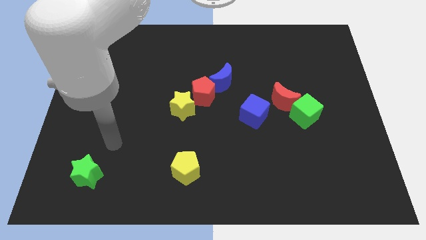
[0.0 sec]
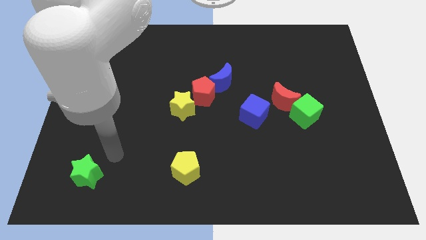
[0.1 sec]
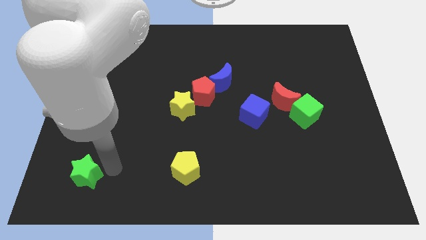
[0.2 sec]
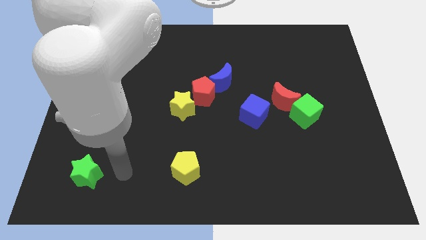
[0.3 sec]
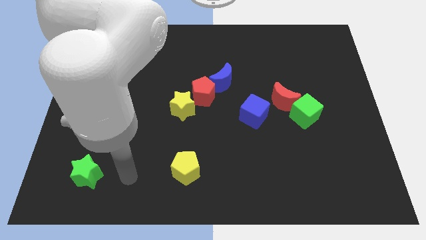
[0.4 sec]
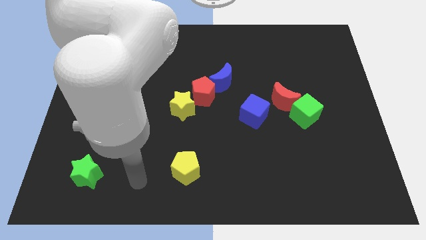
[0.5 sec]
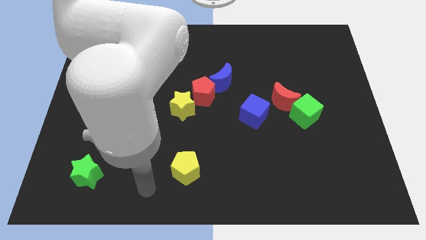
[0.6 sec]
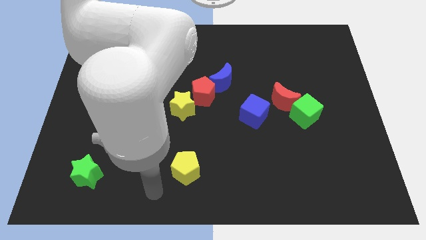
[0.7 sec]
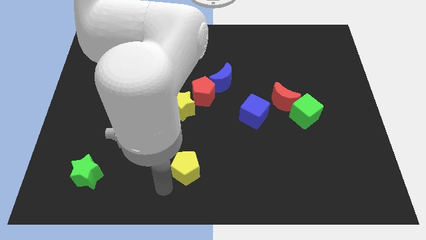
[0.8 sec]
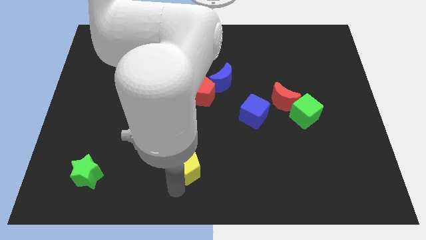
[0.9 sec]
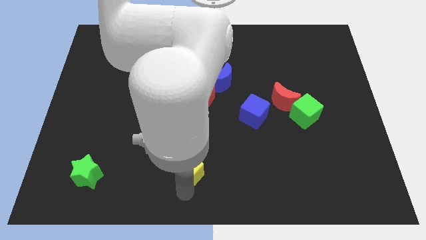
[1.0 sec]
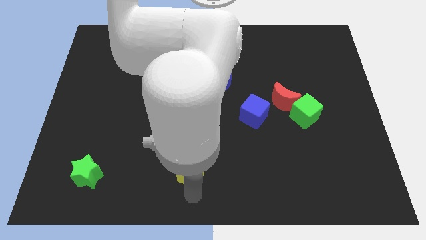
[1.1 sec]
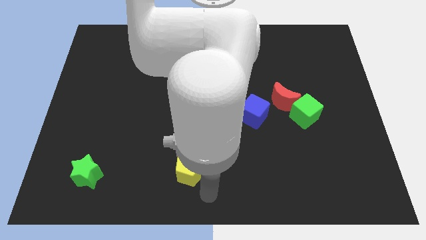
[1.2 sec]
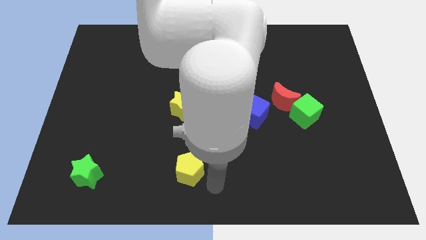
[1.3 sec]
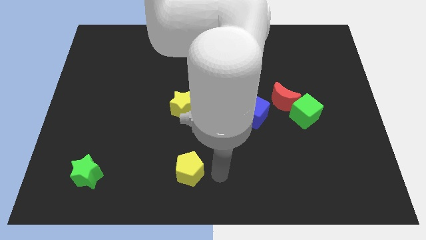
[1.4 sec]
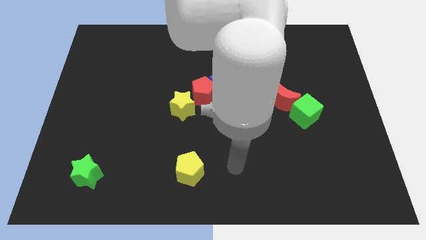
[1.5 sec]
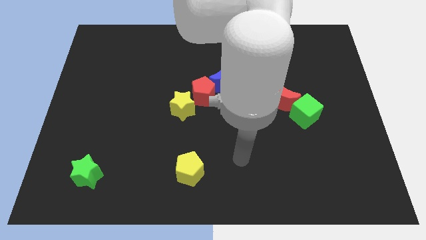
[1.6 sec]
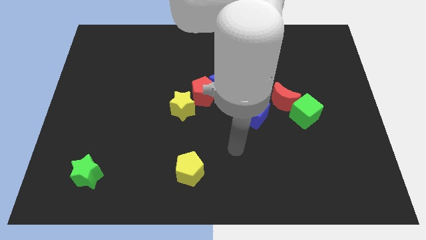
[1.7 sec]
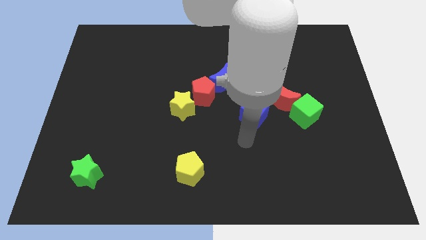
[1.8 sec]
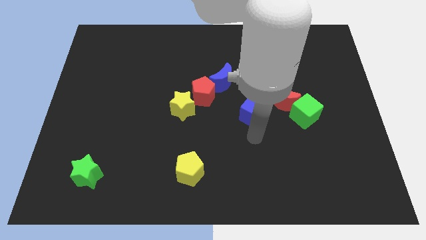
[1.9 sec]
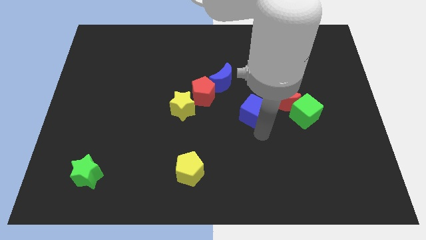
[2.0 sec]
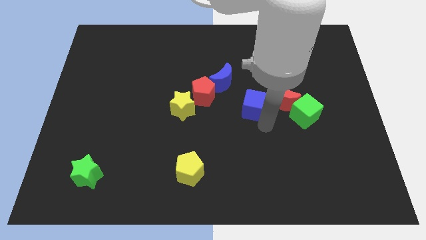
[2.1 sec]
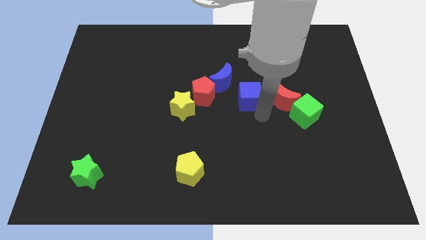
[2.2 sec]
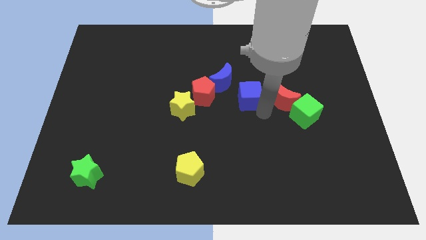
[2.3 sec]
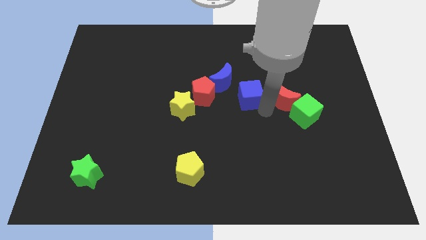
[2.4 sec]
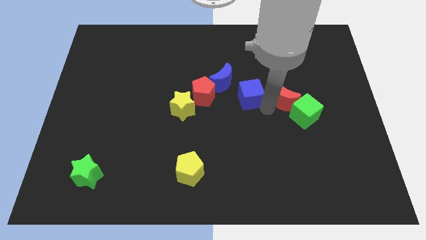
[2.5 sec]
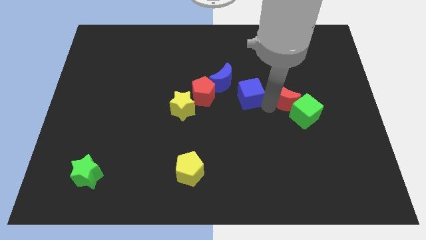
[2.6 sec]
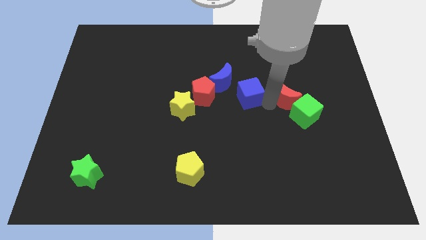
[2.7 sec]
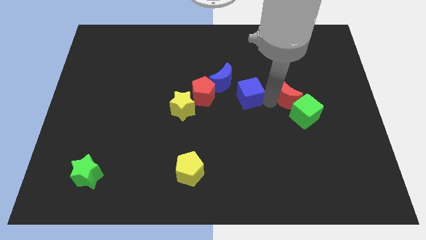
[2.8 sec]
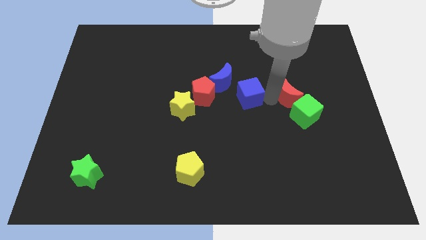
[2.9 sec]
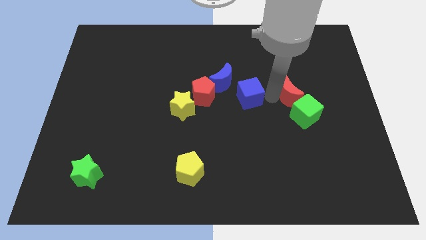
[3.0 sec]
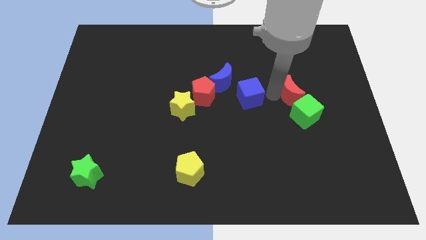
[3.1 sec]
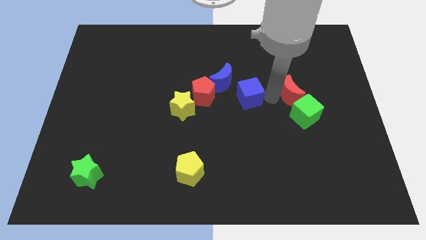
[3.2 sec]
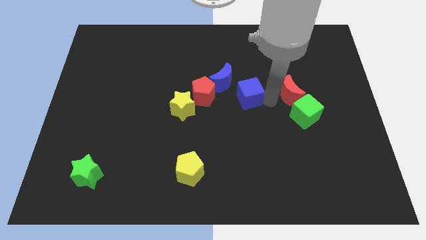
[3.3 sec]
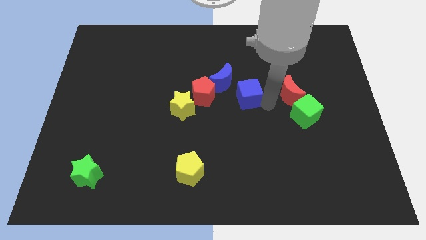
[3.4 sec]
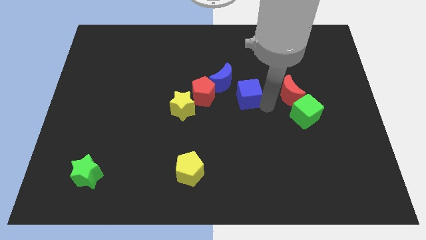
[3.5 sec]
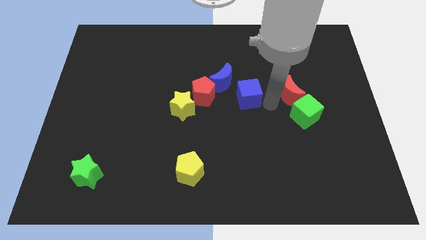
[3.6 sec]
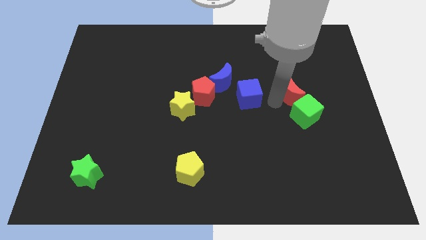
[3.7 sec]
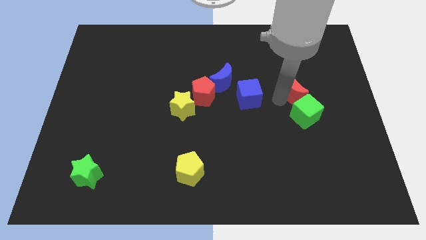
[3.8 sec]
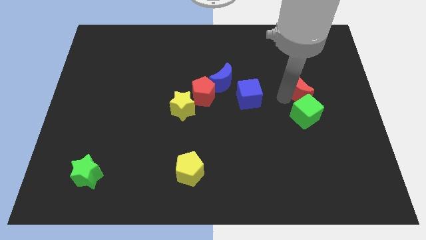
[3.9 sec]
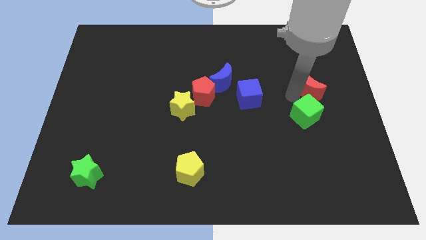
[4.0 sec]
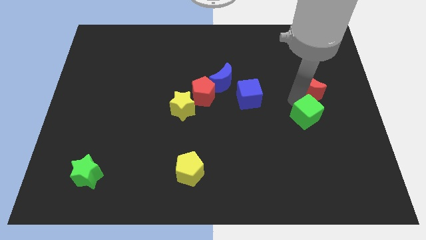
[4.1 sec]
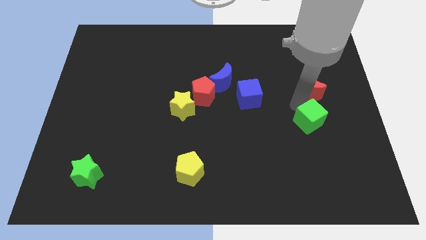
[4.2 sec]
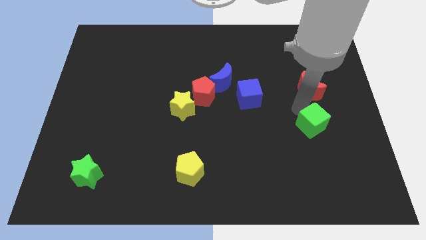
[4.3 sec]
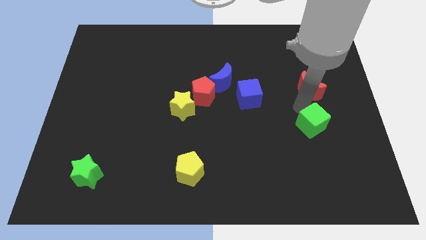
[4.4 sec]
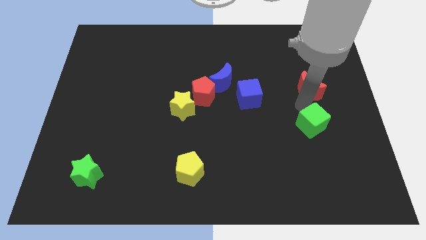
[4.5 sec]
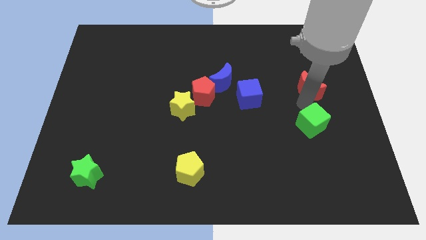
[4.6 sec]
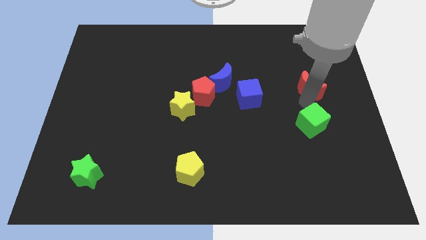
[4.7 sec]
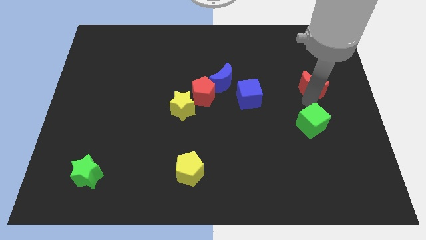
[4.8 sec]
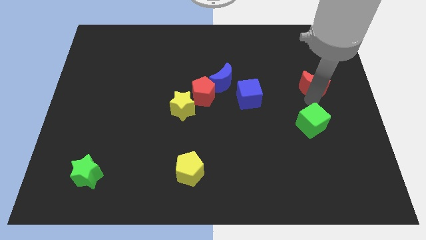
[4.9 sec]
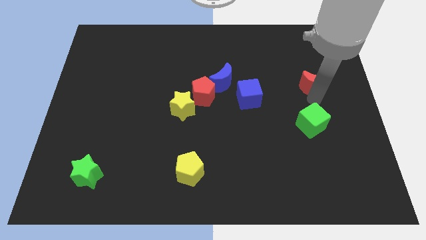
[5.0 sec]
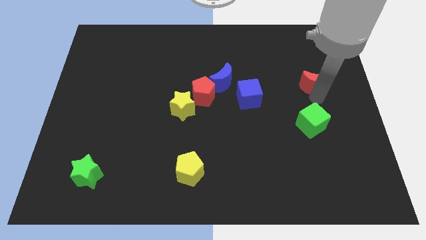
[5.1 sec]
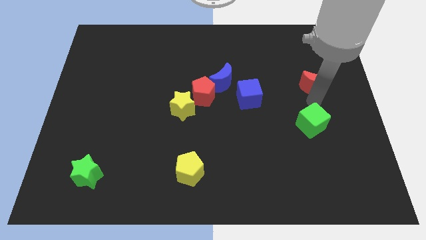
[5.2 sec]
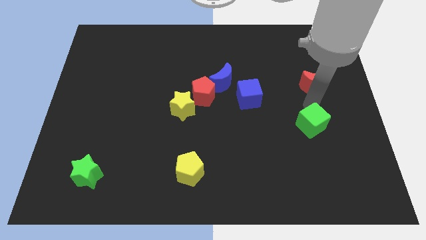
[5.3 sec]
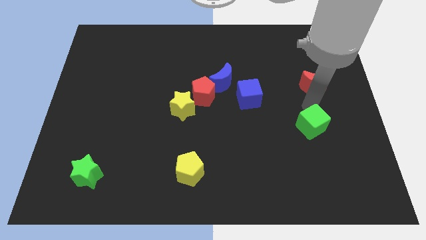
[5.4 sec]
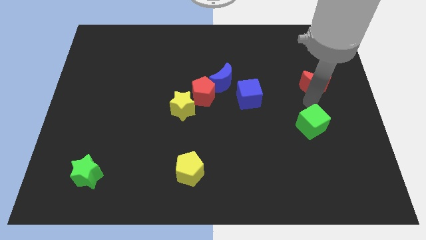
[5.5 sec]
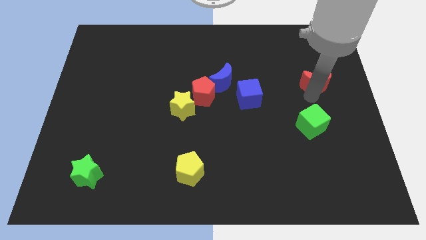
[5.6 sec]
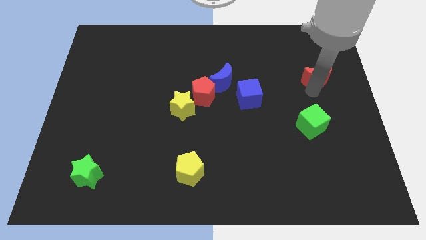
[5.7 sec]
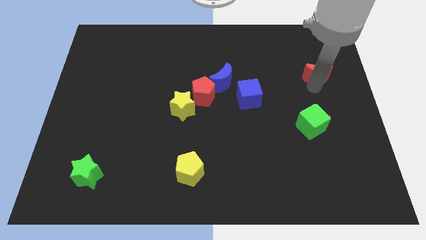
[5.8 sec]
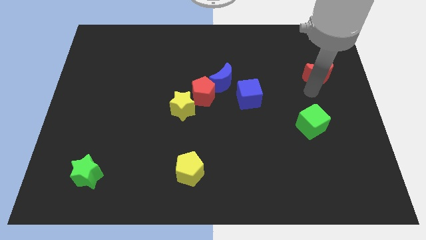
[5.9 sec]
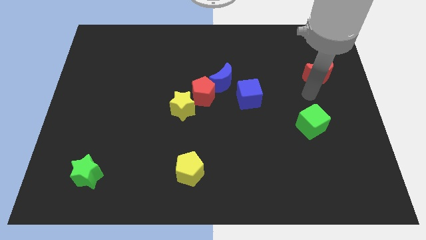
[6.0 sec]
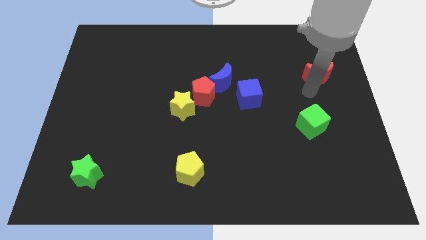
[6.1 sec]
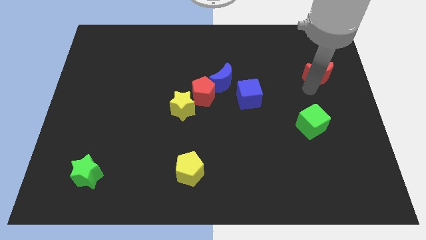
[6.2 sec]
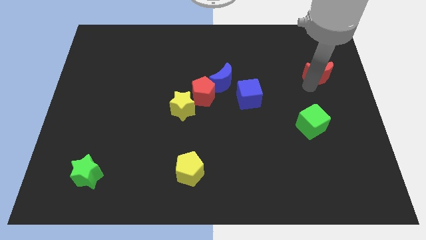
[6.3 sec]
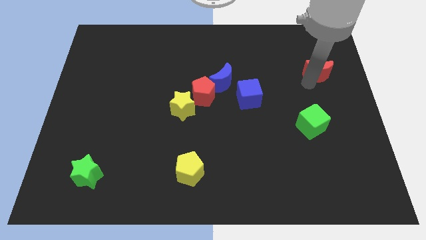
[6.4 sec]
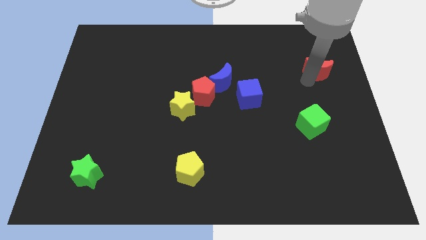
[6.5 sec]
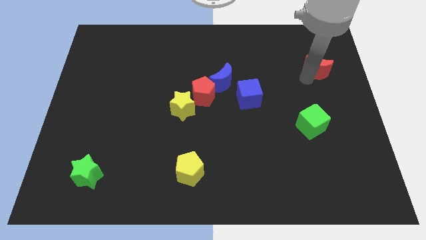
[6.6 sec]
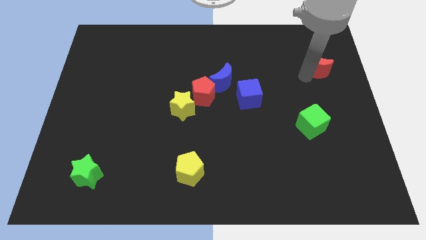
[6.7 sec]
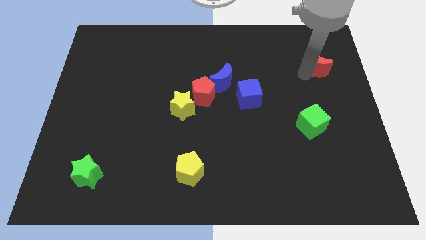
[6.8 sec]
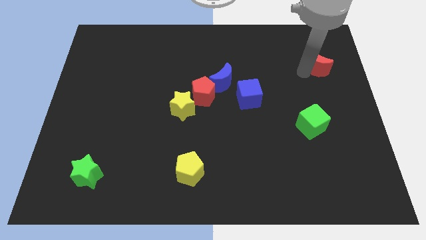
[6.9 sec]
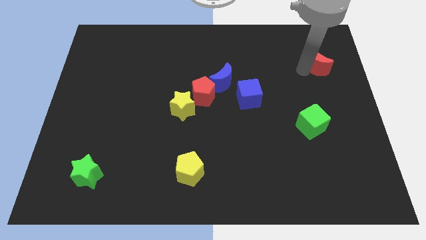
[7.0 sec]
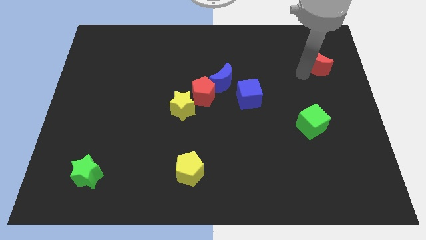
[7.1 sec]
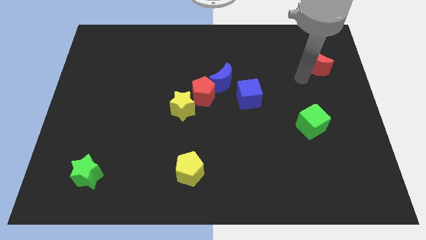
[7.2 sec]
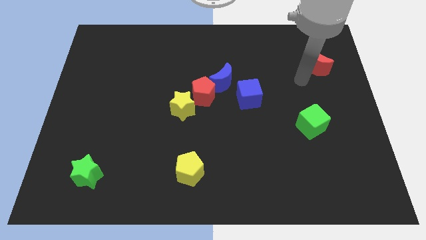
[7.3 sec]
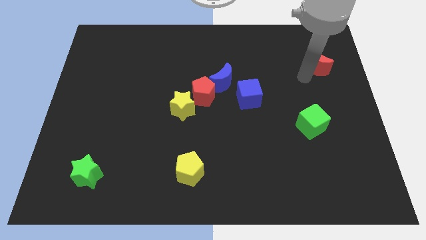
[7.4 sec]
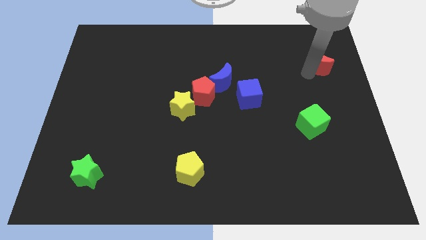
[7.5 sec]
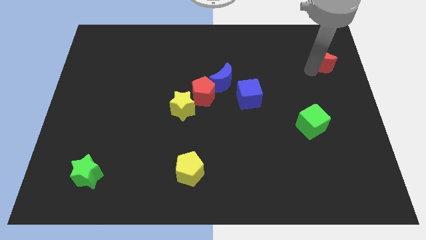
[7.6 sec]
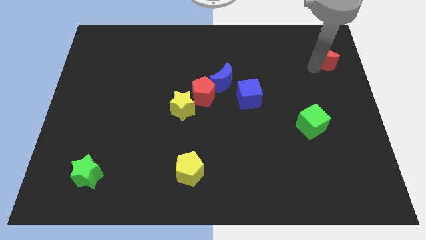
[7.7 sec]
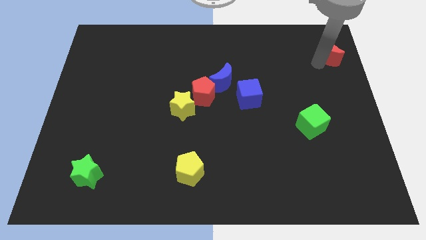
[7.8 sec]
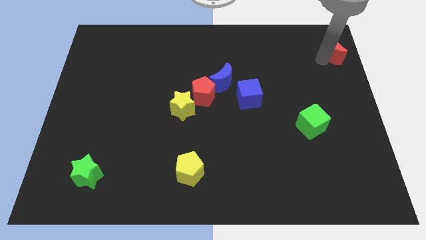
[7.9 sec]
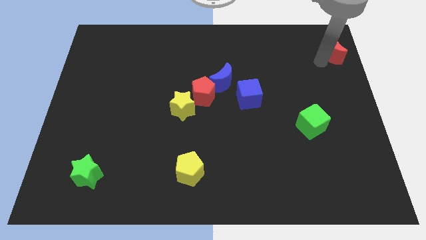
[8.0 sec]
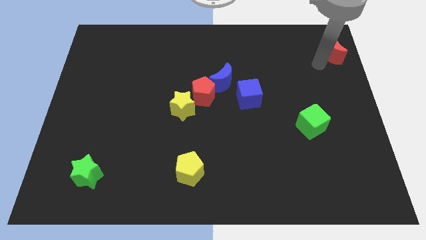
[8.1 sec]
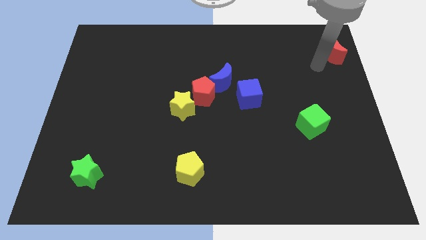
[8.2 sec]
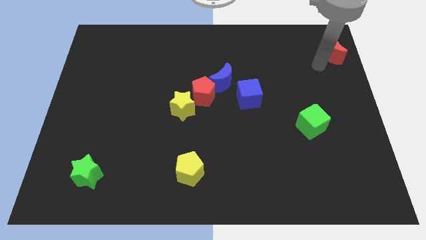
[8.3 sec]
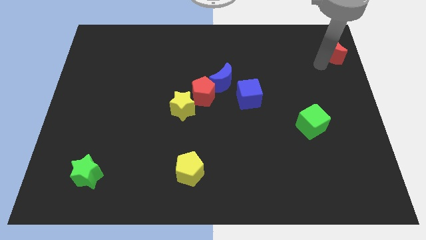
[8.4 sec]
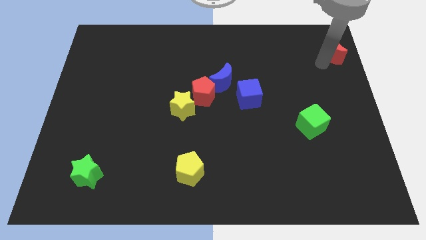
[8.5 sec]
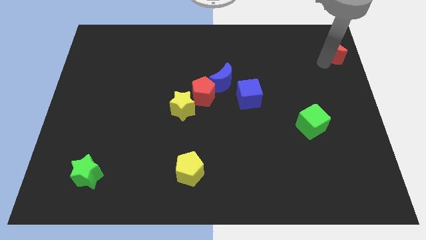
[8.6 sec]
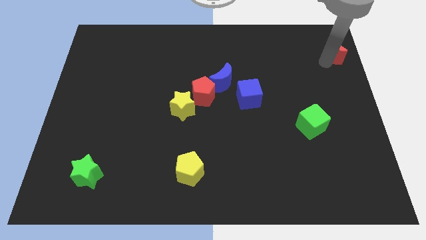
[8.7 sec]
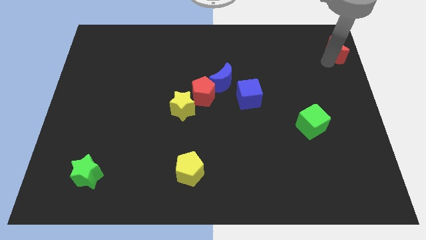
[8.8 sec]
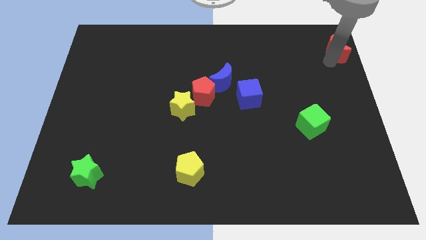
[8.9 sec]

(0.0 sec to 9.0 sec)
push the red moon to the top right corner
